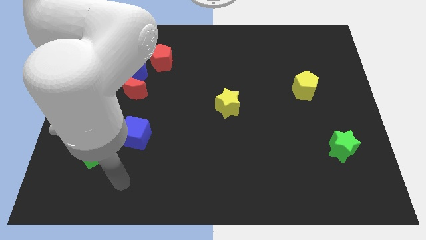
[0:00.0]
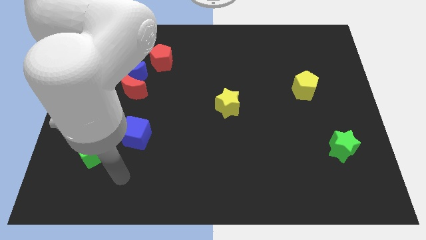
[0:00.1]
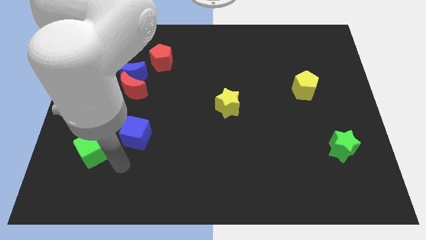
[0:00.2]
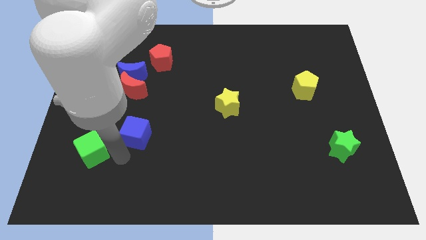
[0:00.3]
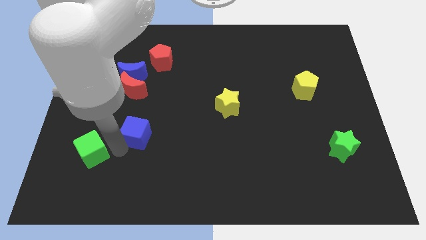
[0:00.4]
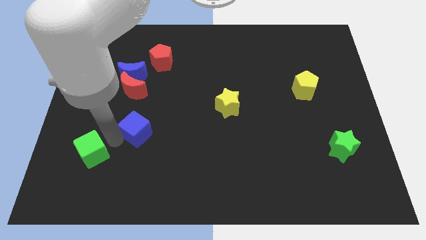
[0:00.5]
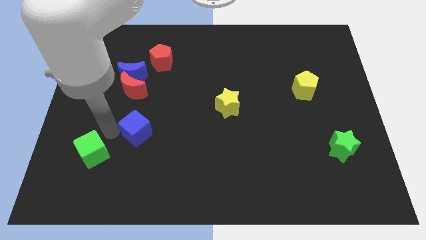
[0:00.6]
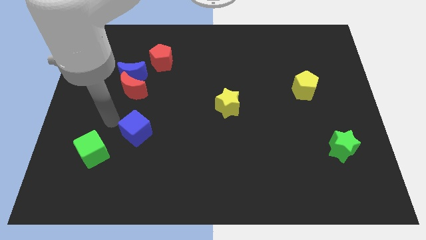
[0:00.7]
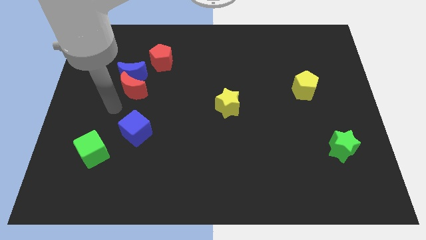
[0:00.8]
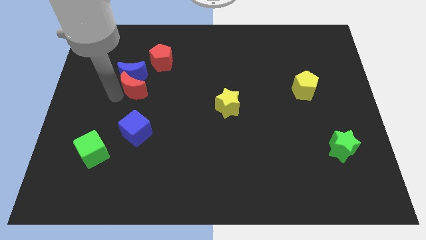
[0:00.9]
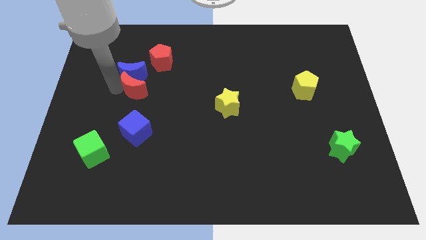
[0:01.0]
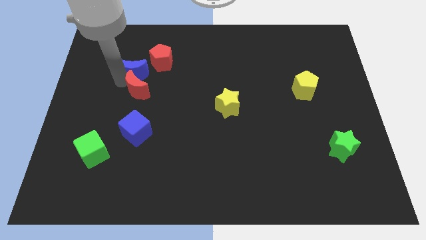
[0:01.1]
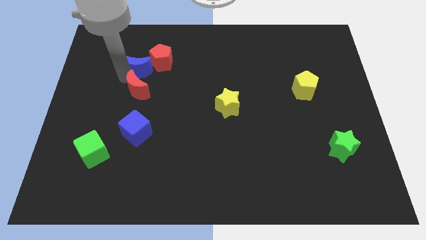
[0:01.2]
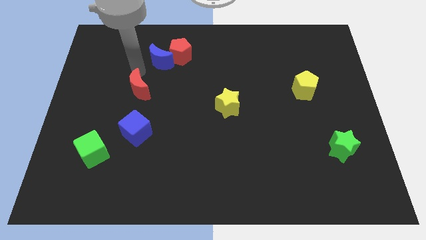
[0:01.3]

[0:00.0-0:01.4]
pull the red moon apart from the blue moon

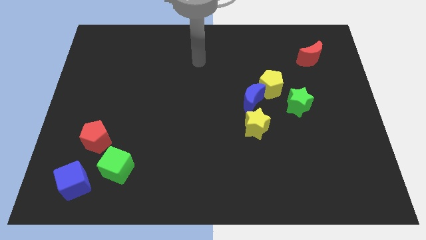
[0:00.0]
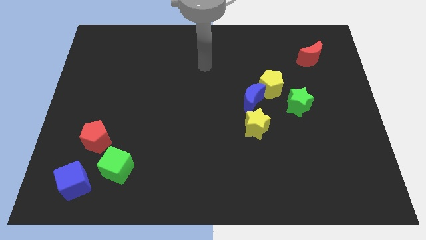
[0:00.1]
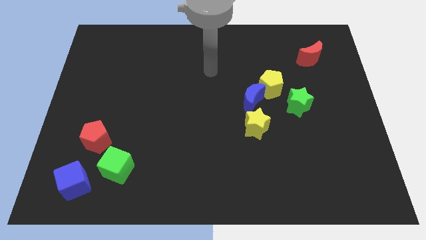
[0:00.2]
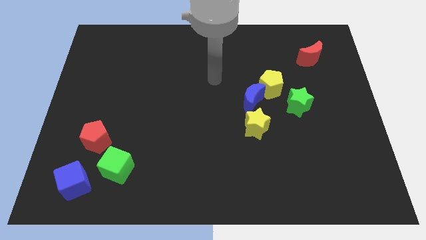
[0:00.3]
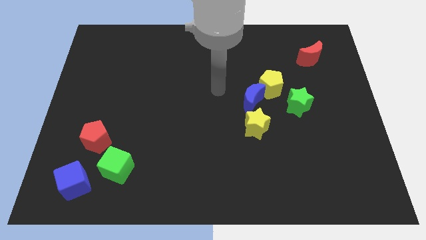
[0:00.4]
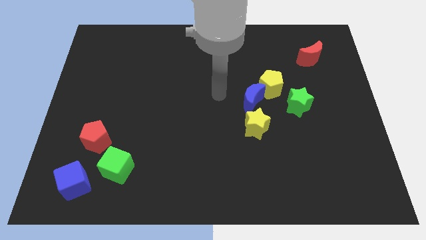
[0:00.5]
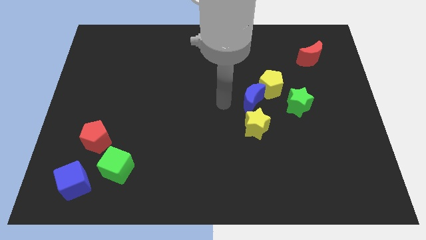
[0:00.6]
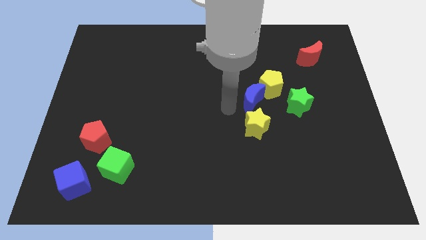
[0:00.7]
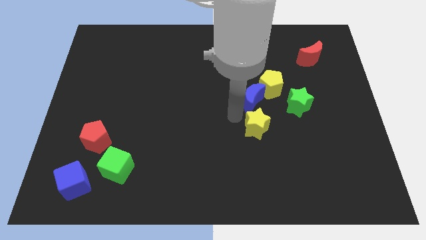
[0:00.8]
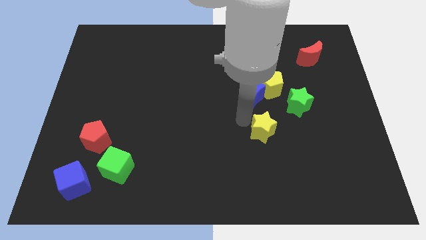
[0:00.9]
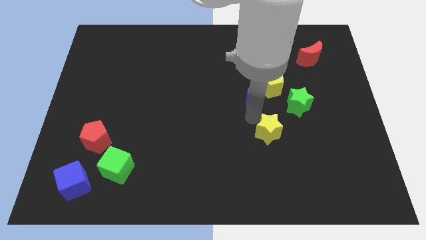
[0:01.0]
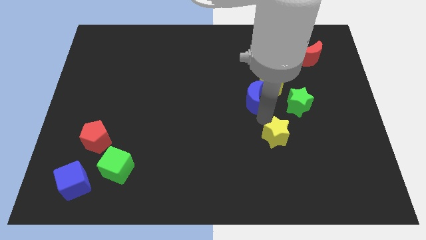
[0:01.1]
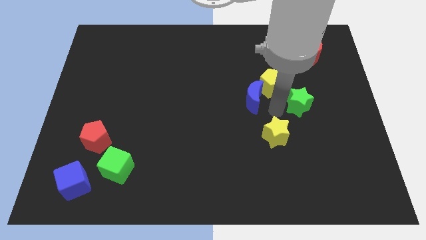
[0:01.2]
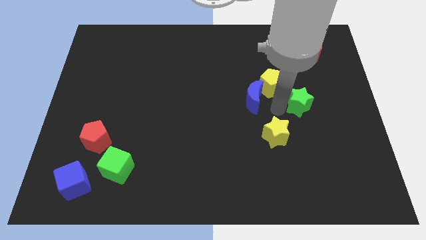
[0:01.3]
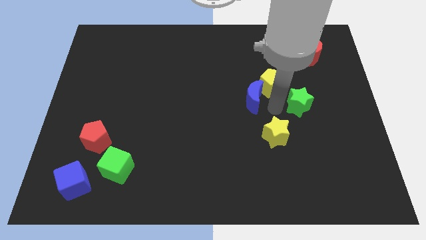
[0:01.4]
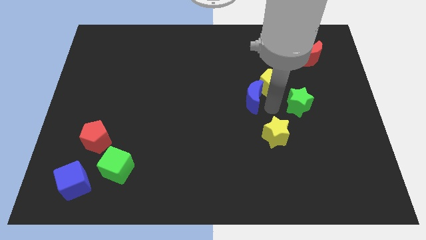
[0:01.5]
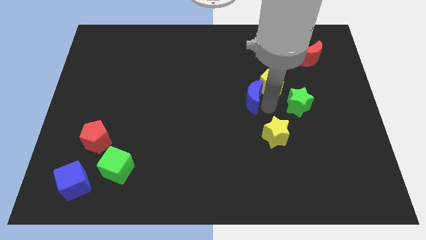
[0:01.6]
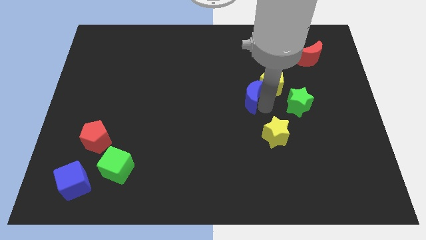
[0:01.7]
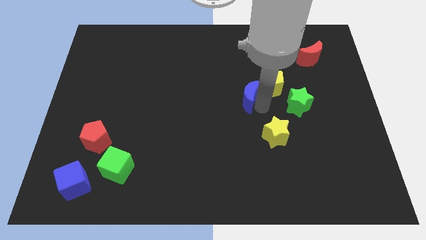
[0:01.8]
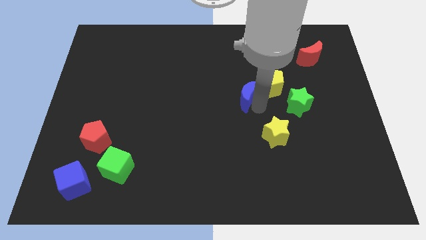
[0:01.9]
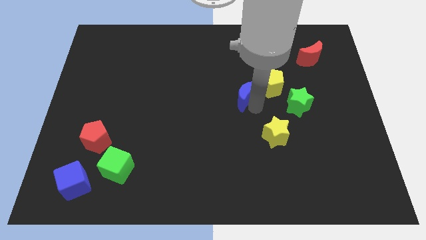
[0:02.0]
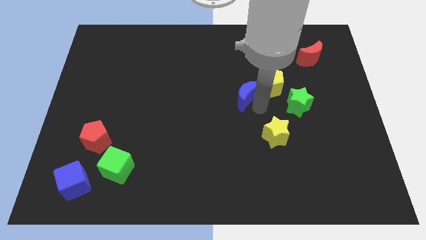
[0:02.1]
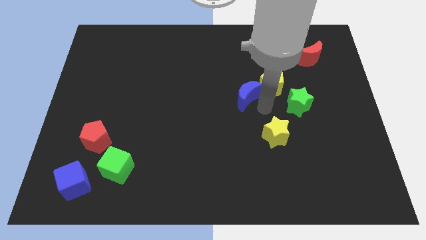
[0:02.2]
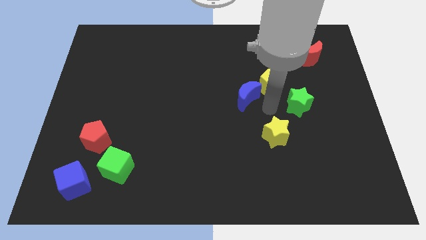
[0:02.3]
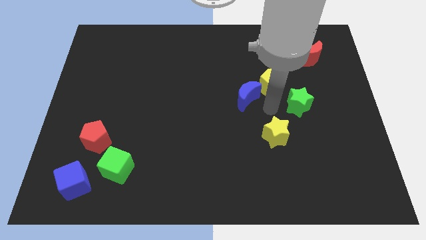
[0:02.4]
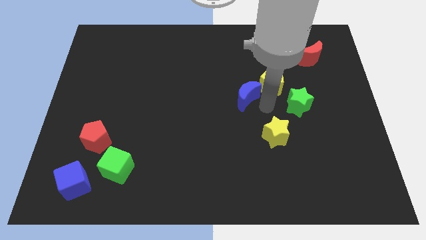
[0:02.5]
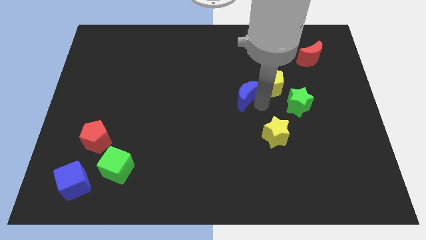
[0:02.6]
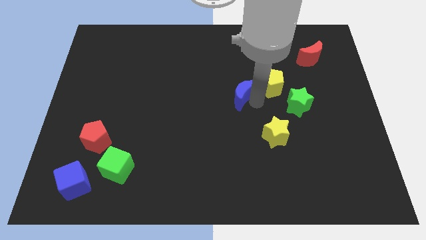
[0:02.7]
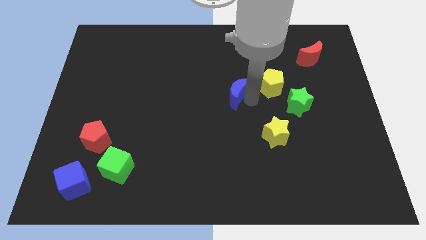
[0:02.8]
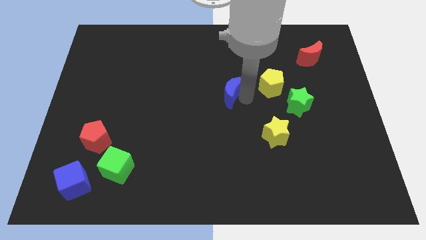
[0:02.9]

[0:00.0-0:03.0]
pull the blue moon apart from the yellow pentagon and yellow star

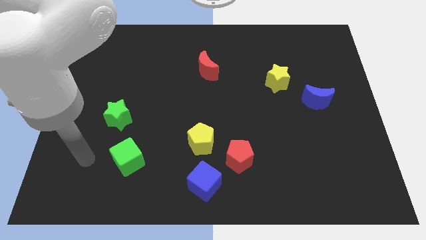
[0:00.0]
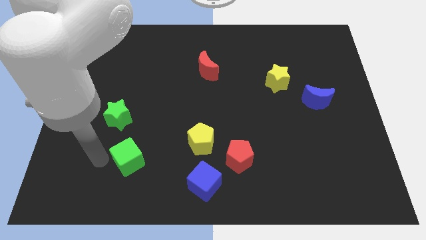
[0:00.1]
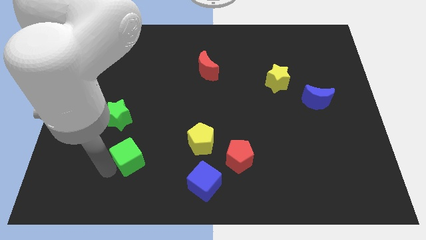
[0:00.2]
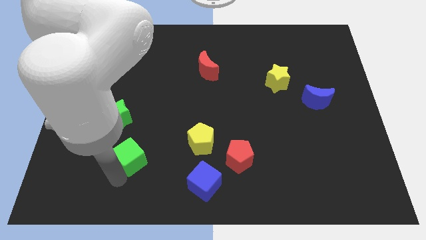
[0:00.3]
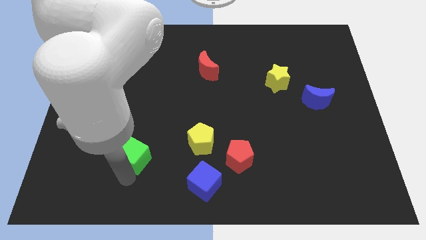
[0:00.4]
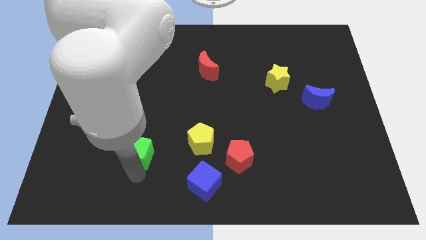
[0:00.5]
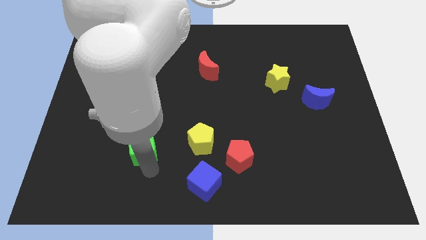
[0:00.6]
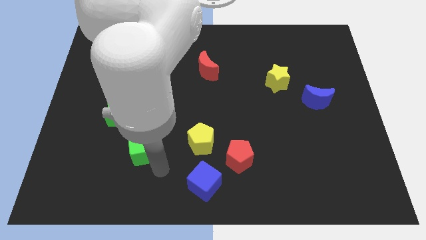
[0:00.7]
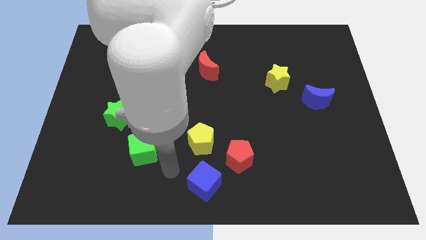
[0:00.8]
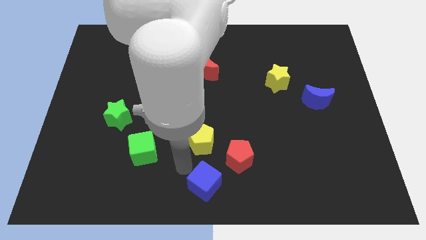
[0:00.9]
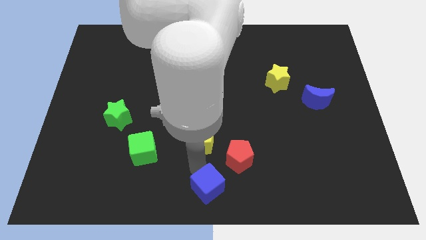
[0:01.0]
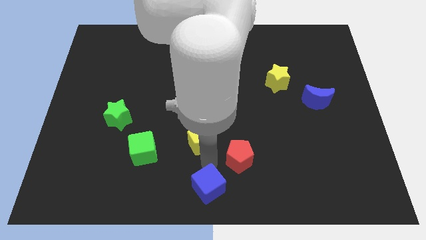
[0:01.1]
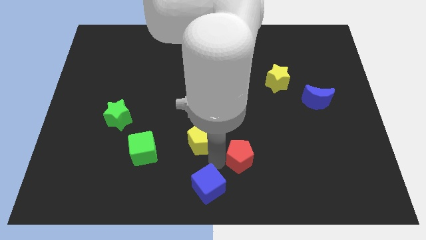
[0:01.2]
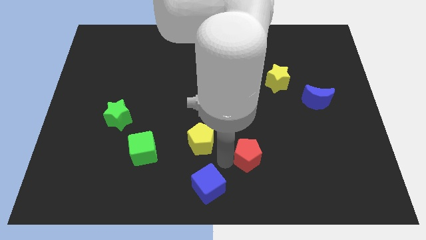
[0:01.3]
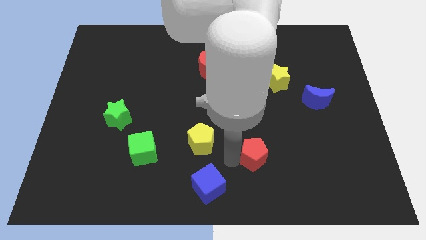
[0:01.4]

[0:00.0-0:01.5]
separate the red pentagon from the yellow pentagon and blue cube

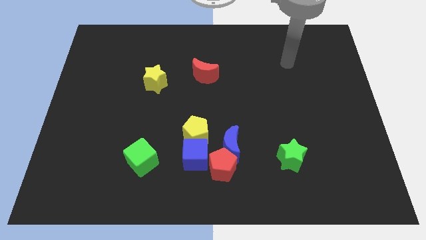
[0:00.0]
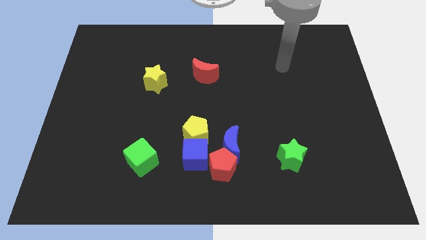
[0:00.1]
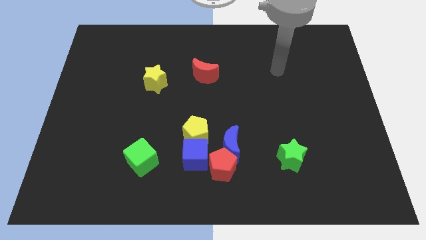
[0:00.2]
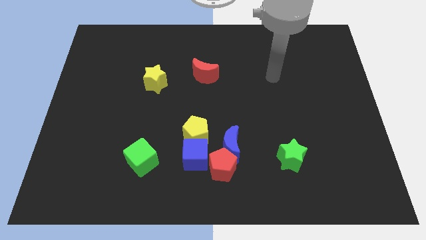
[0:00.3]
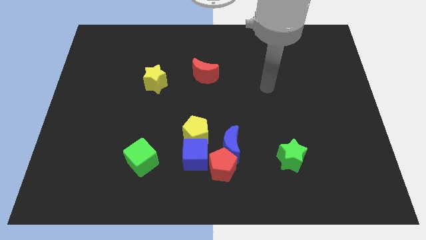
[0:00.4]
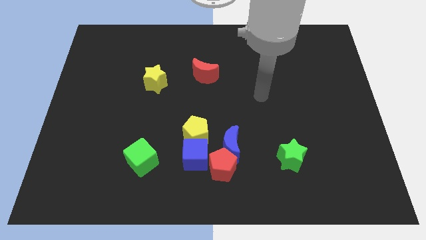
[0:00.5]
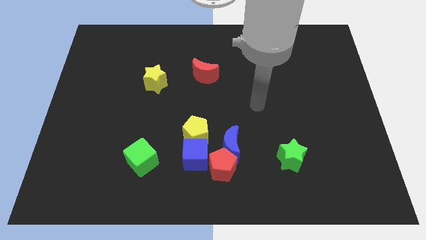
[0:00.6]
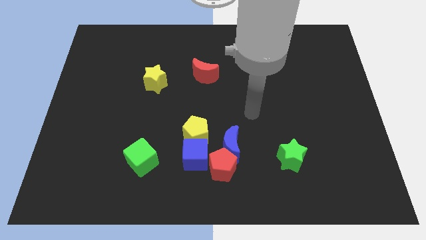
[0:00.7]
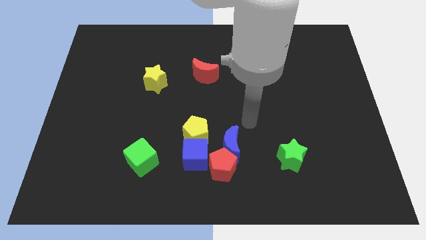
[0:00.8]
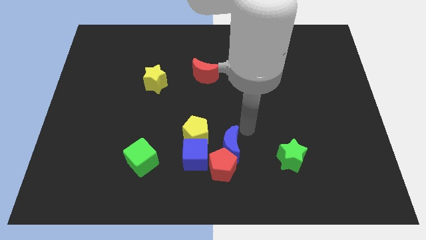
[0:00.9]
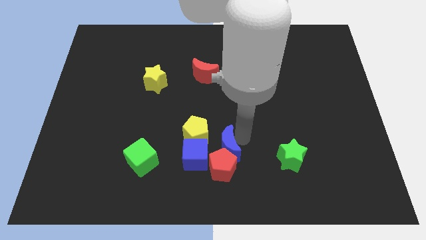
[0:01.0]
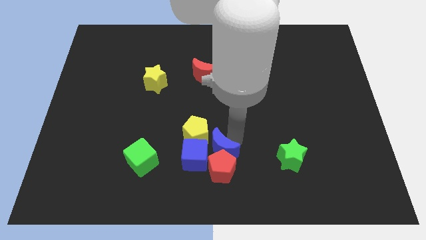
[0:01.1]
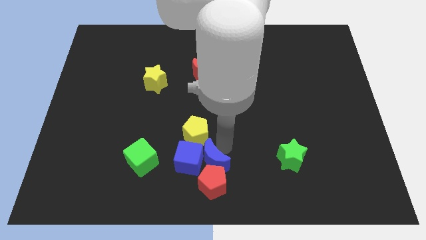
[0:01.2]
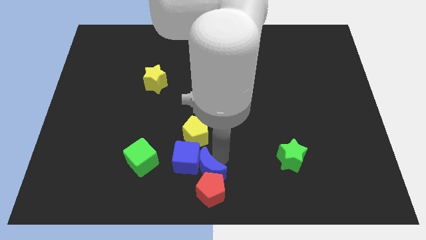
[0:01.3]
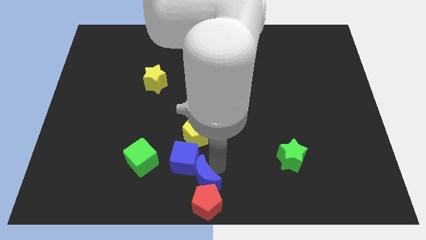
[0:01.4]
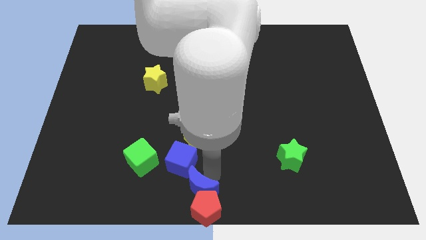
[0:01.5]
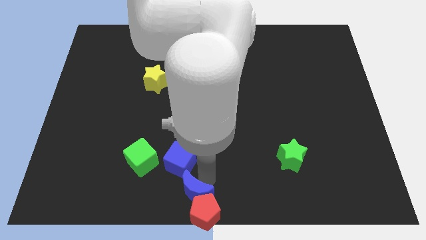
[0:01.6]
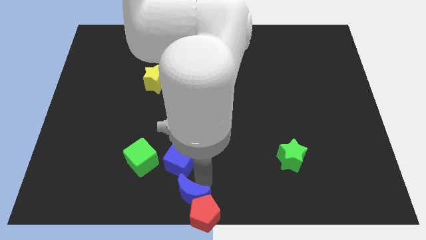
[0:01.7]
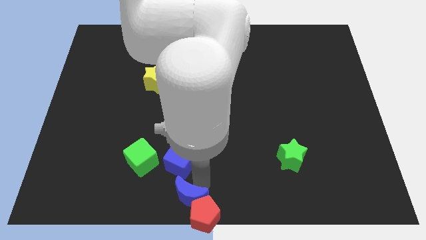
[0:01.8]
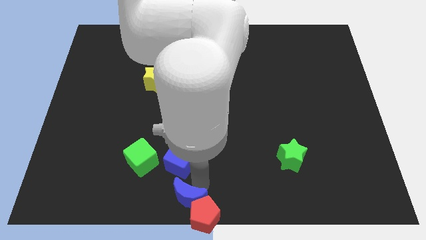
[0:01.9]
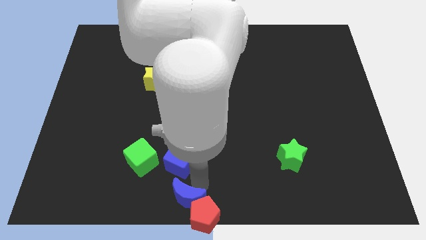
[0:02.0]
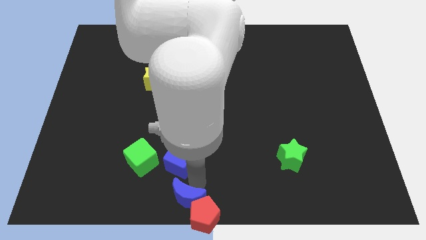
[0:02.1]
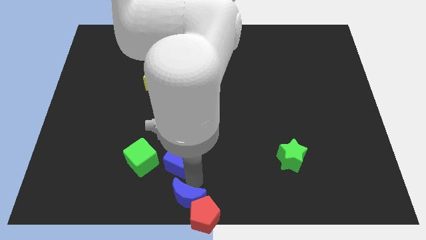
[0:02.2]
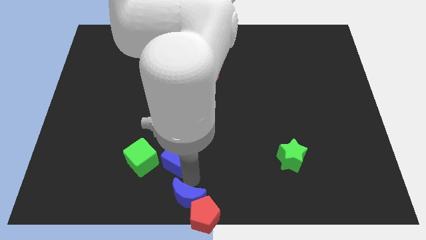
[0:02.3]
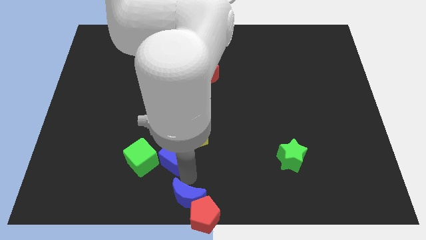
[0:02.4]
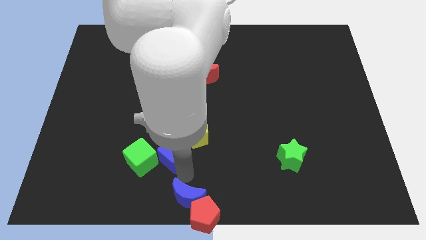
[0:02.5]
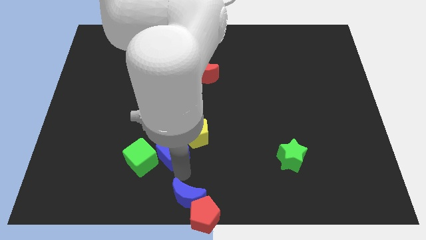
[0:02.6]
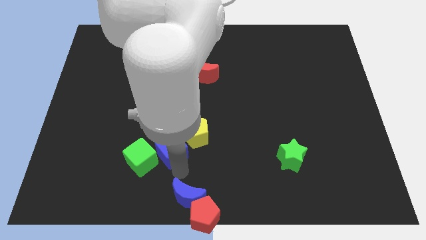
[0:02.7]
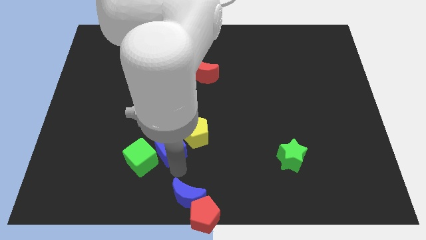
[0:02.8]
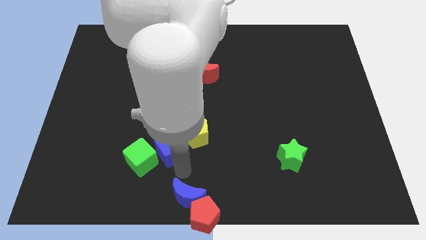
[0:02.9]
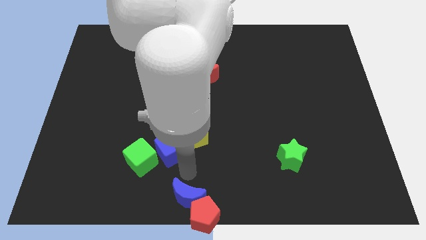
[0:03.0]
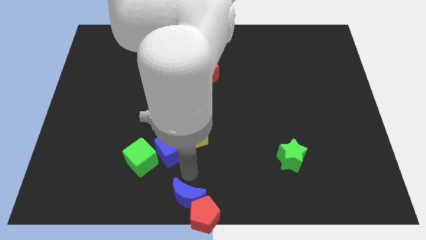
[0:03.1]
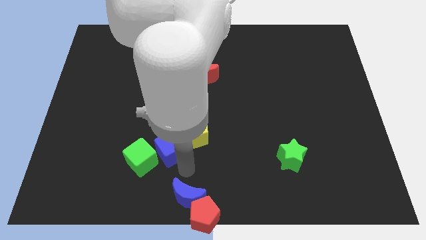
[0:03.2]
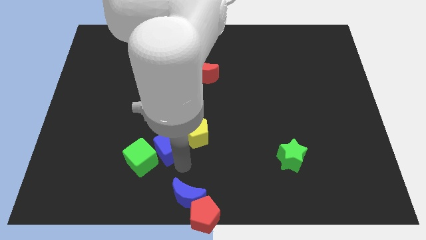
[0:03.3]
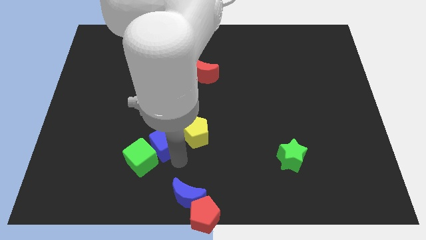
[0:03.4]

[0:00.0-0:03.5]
separate the blue cube from the group
